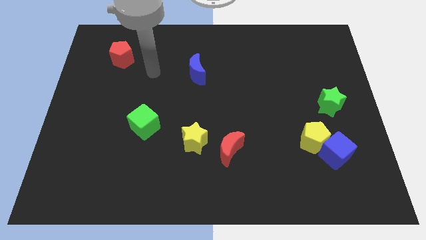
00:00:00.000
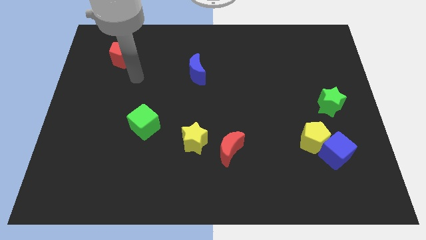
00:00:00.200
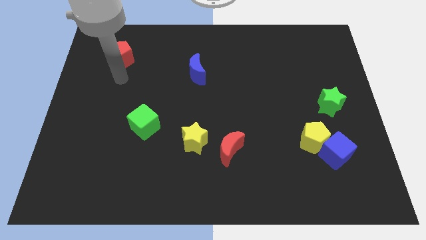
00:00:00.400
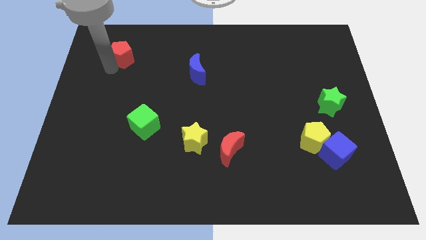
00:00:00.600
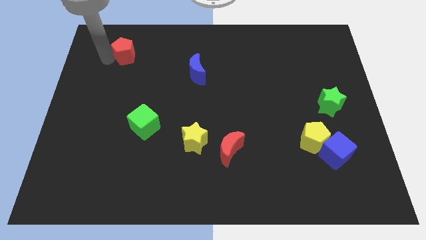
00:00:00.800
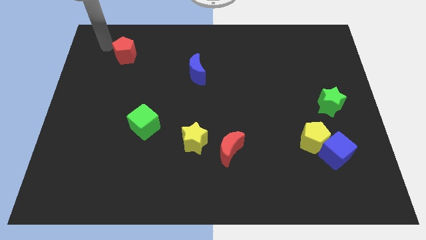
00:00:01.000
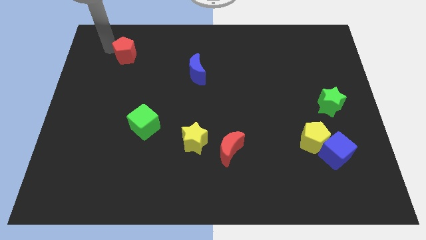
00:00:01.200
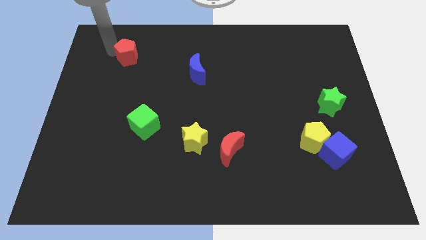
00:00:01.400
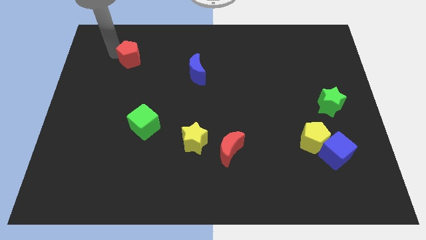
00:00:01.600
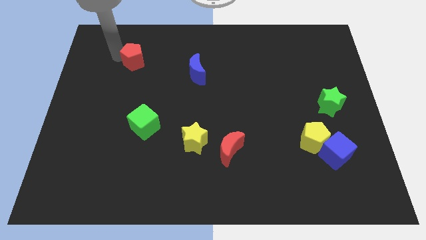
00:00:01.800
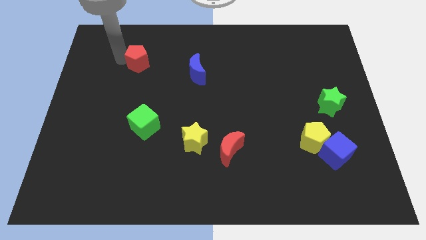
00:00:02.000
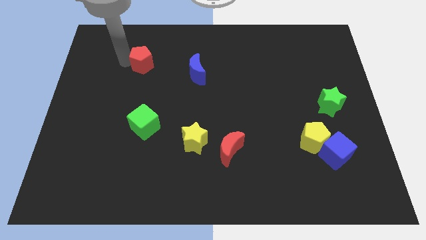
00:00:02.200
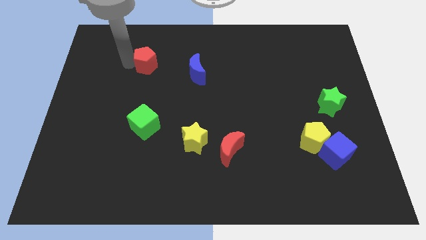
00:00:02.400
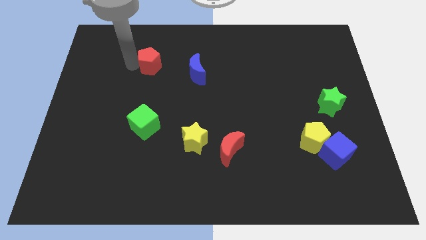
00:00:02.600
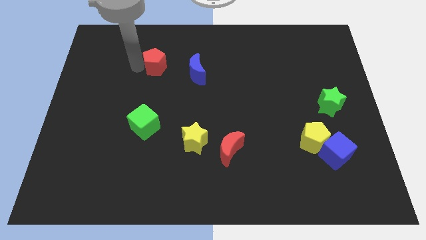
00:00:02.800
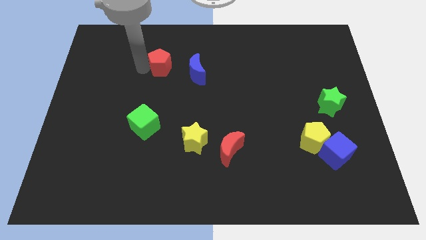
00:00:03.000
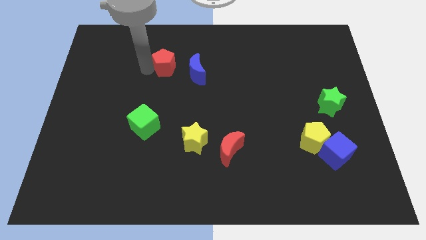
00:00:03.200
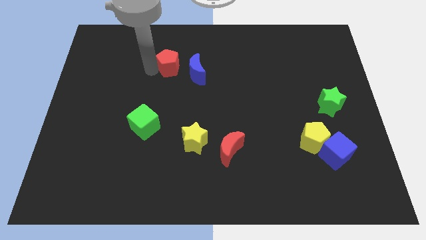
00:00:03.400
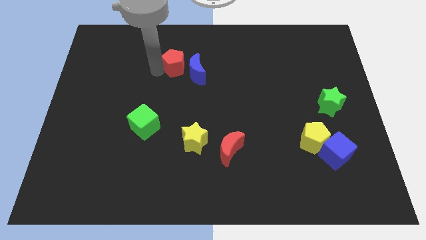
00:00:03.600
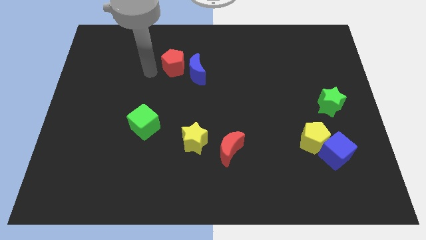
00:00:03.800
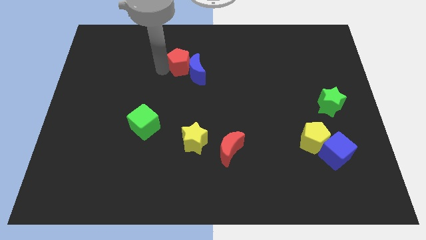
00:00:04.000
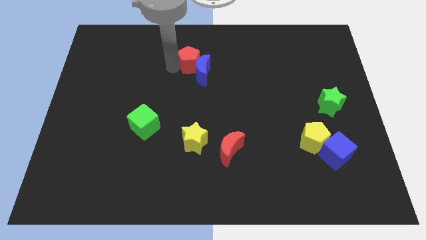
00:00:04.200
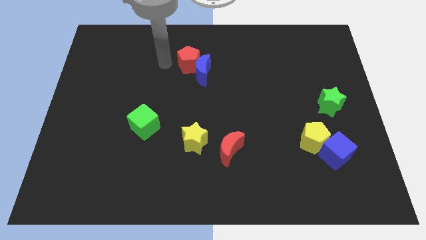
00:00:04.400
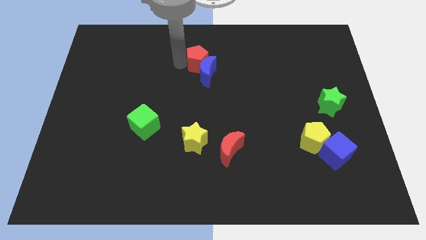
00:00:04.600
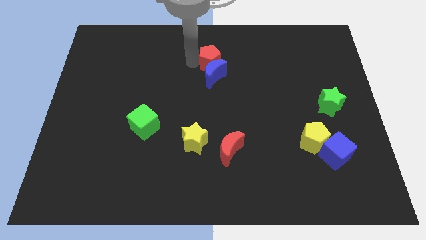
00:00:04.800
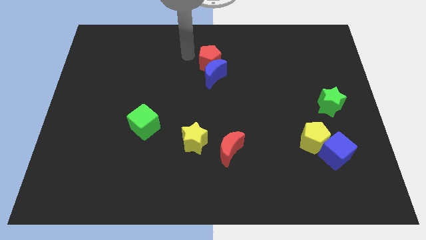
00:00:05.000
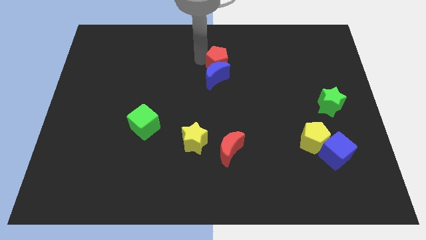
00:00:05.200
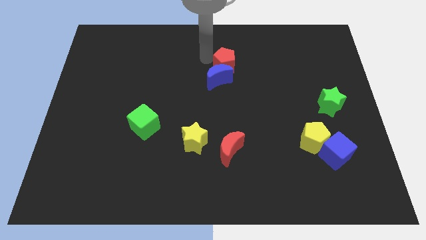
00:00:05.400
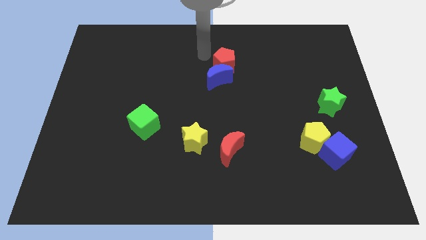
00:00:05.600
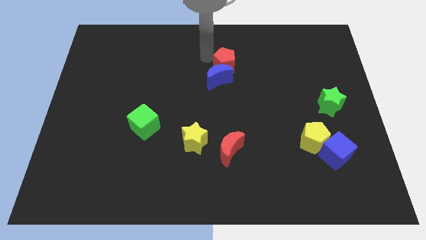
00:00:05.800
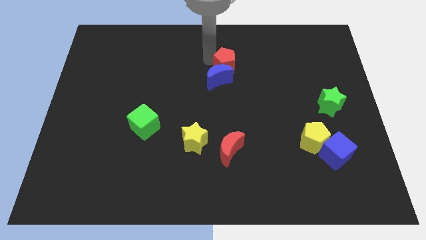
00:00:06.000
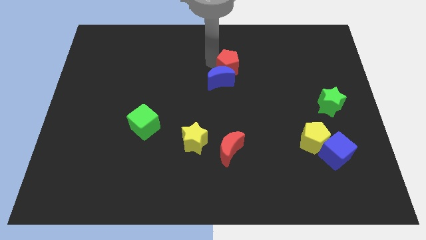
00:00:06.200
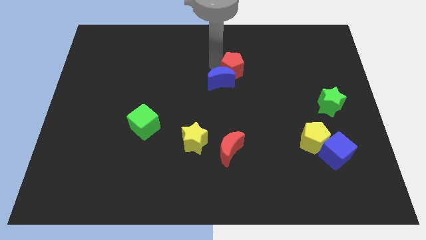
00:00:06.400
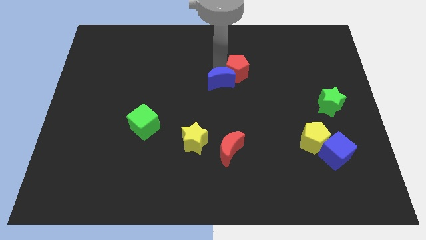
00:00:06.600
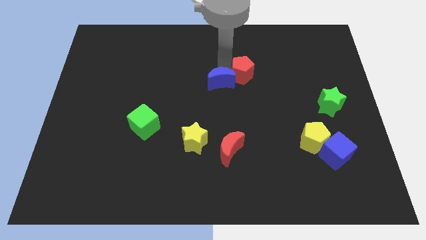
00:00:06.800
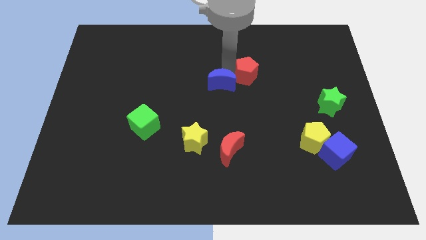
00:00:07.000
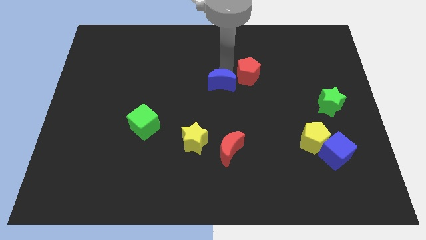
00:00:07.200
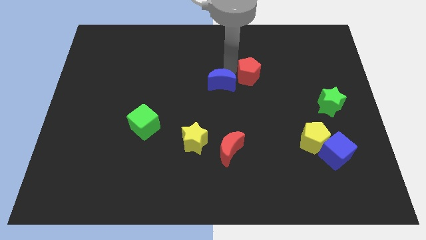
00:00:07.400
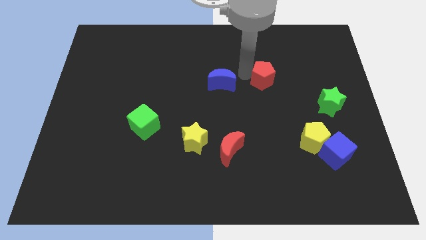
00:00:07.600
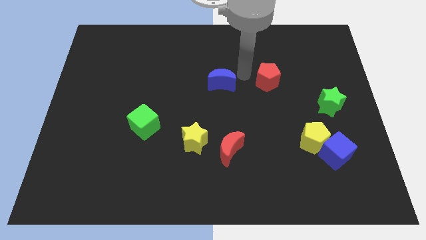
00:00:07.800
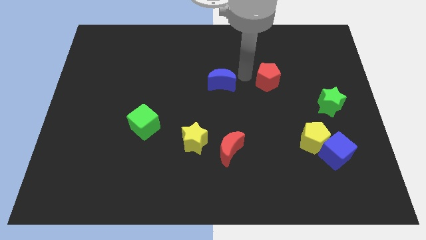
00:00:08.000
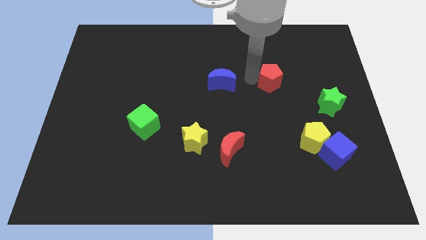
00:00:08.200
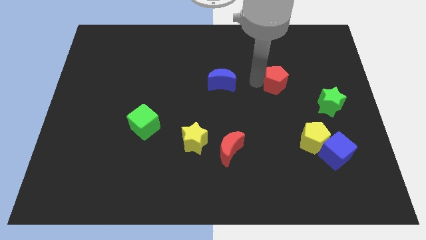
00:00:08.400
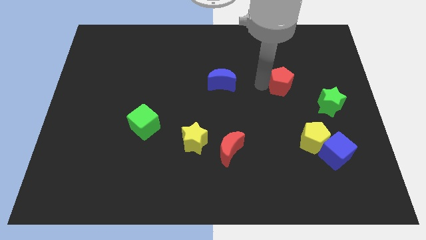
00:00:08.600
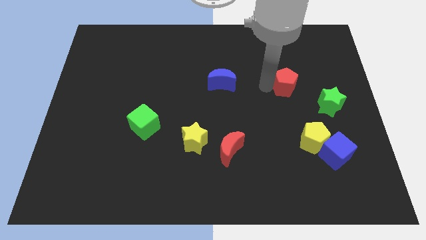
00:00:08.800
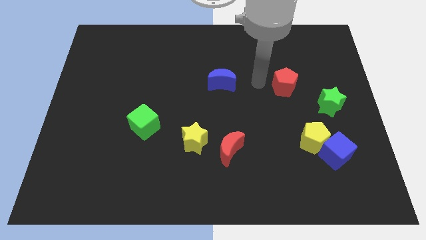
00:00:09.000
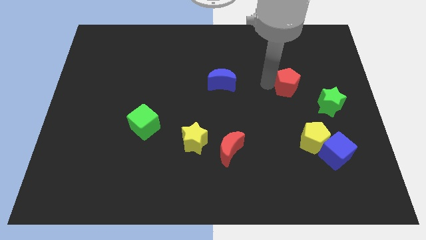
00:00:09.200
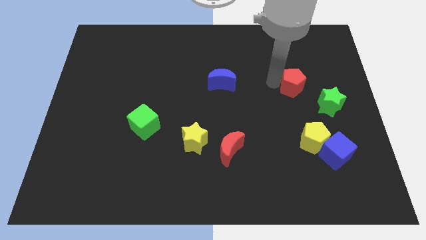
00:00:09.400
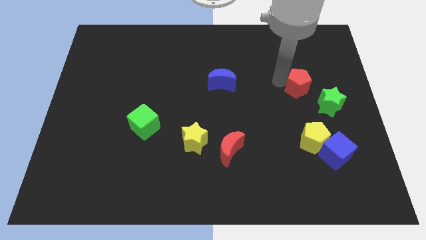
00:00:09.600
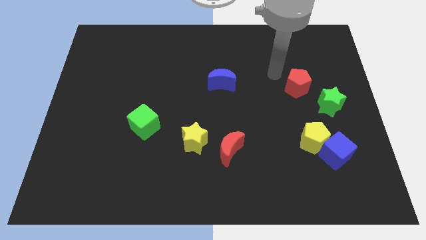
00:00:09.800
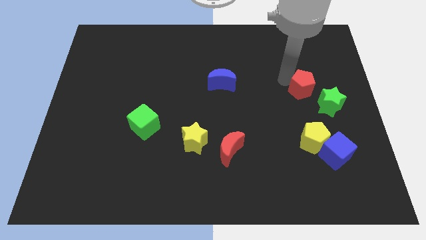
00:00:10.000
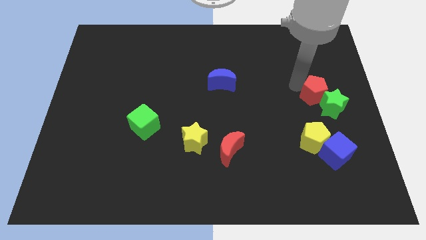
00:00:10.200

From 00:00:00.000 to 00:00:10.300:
slide the red pentagon next to the green star

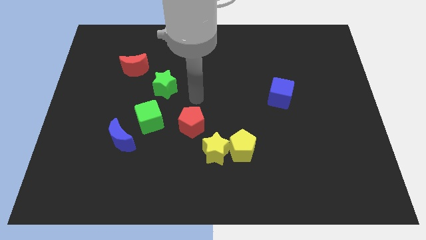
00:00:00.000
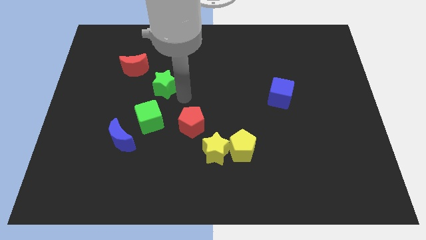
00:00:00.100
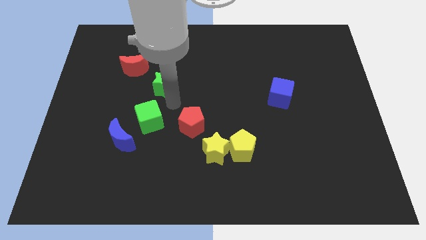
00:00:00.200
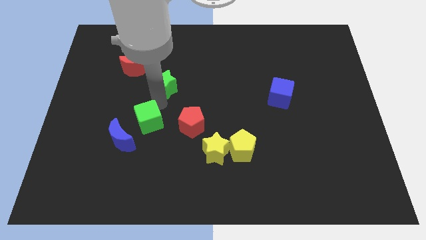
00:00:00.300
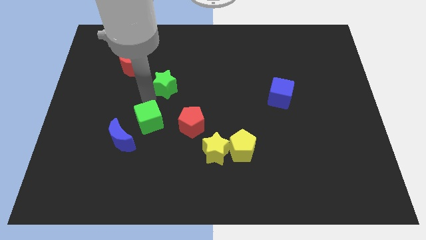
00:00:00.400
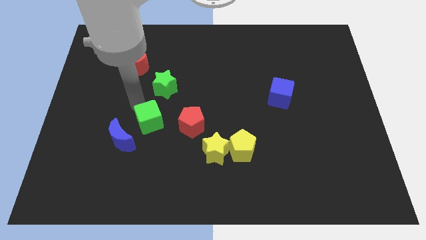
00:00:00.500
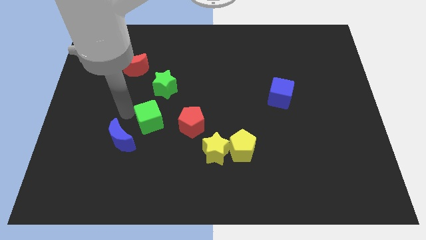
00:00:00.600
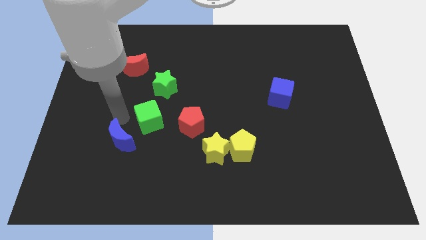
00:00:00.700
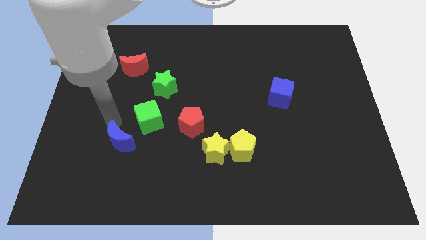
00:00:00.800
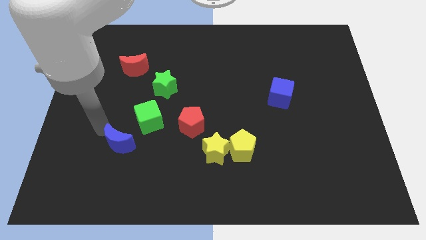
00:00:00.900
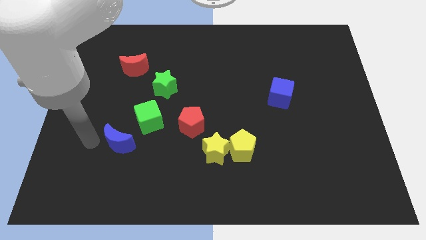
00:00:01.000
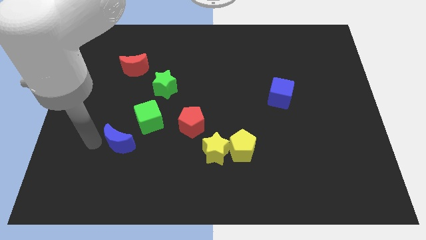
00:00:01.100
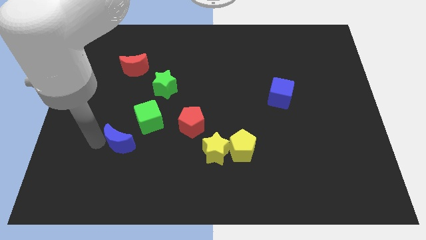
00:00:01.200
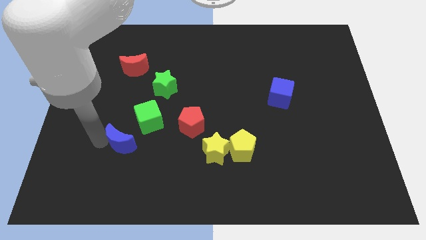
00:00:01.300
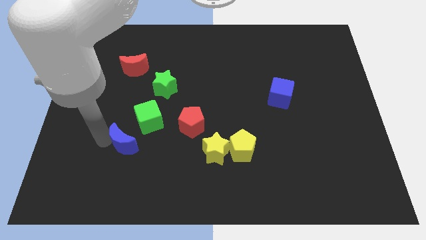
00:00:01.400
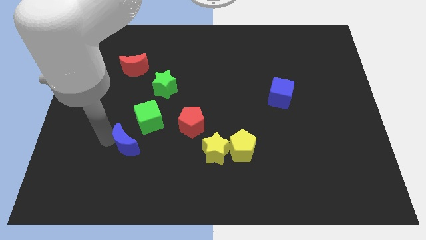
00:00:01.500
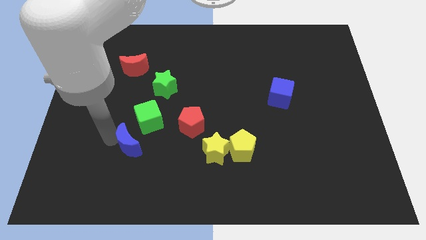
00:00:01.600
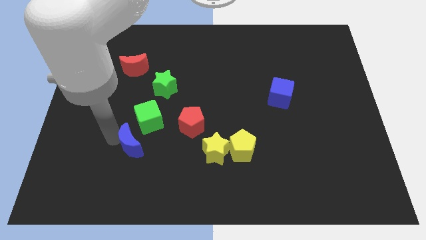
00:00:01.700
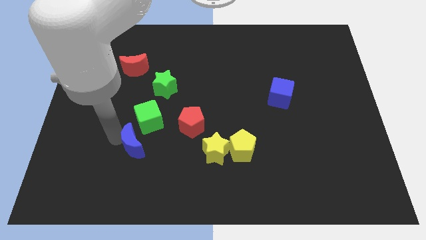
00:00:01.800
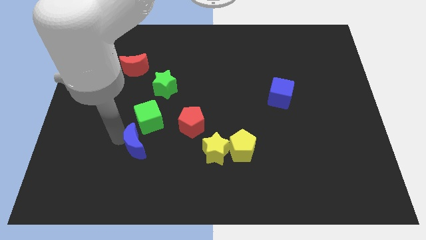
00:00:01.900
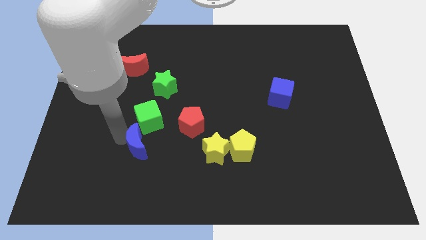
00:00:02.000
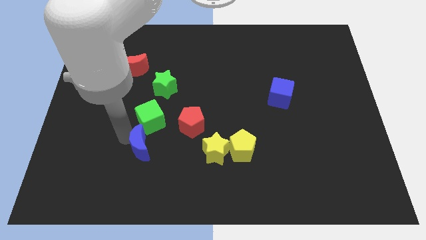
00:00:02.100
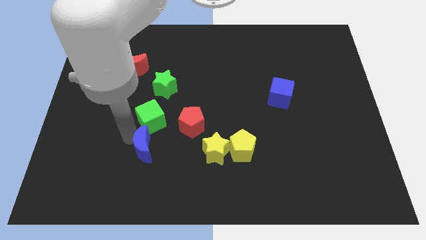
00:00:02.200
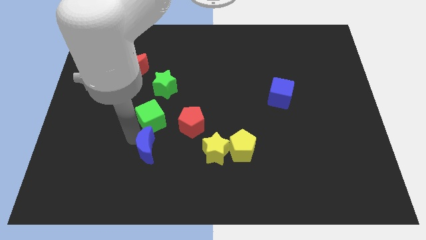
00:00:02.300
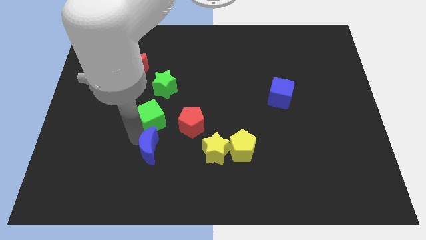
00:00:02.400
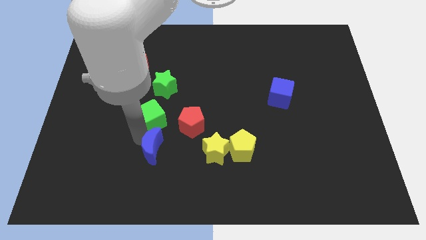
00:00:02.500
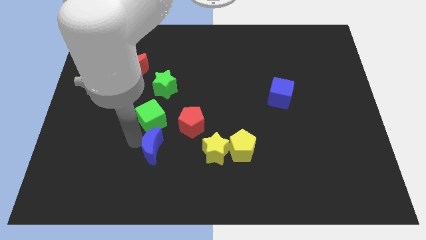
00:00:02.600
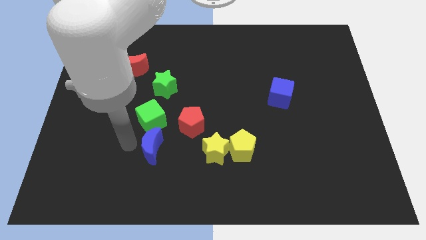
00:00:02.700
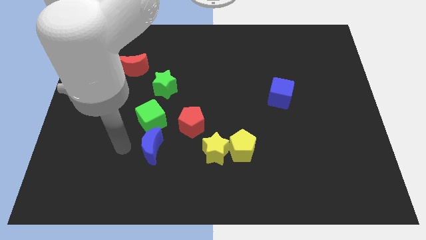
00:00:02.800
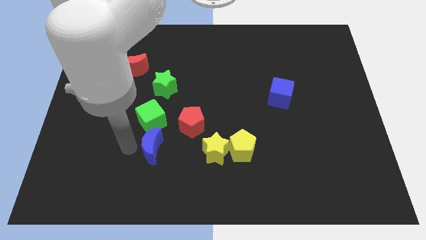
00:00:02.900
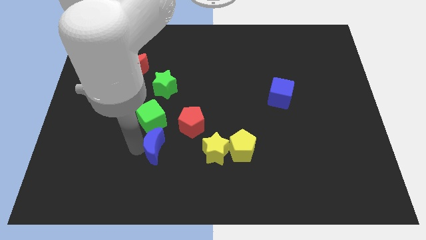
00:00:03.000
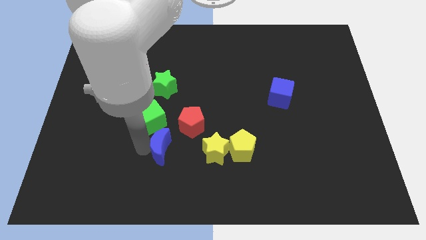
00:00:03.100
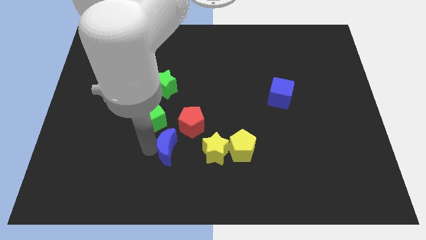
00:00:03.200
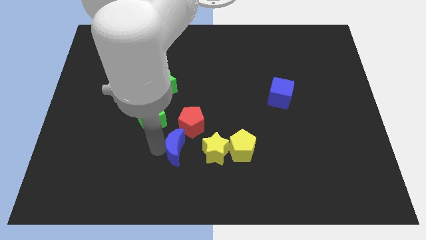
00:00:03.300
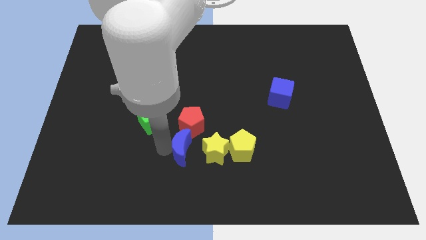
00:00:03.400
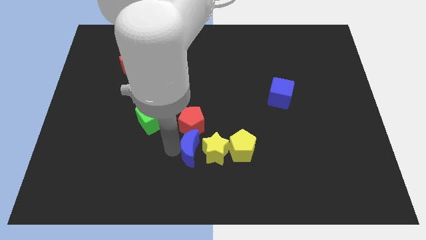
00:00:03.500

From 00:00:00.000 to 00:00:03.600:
move the blue moon next to the yellow star
